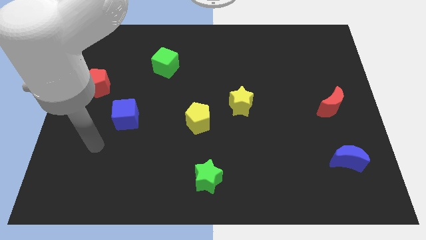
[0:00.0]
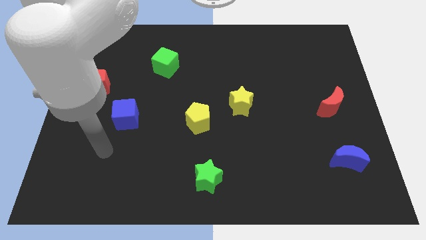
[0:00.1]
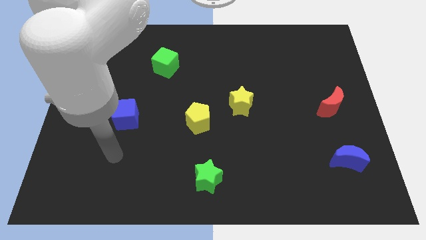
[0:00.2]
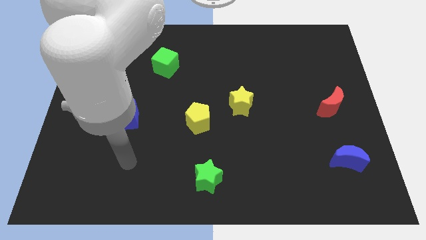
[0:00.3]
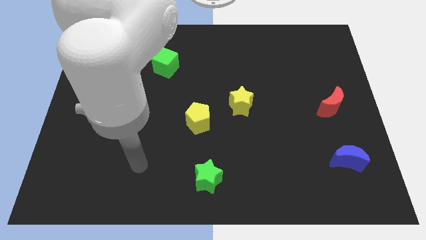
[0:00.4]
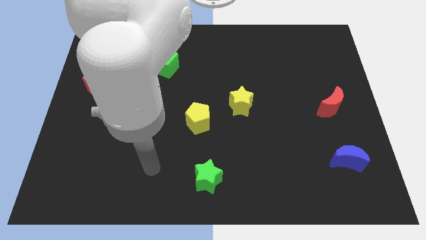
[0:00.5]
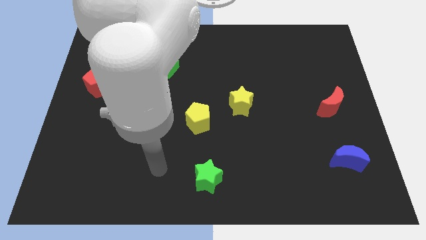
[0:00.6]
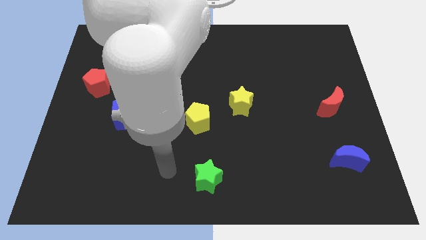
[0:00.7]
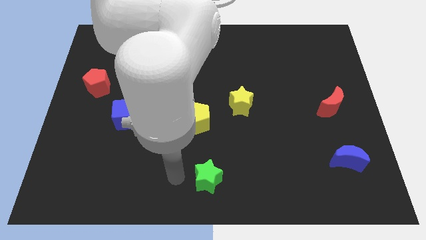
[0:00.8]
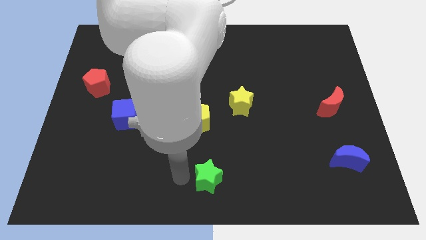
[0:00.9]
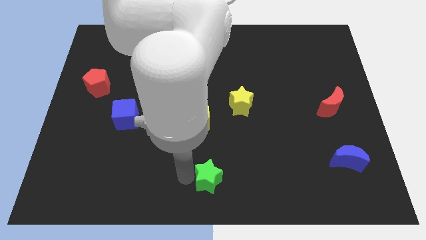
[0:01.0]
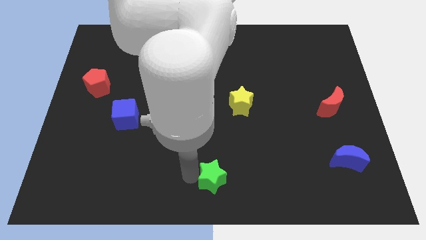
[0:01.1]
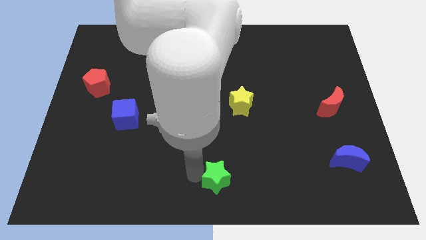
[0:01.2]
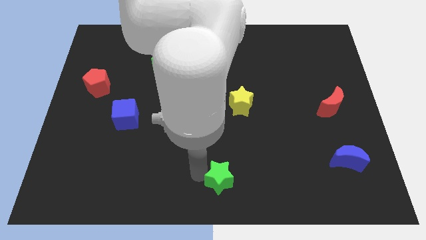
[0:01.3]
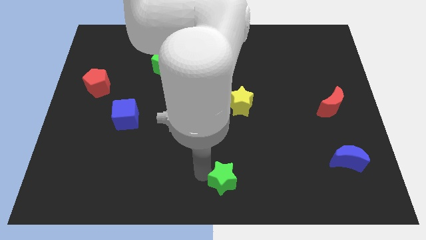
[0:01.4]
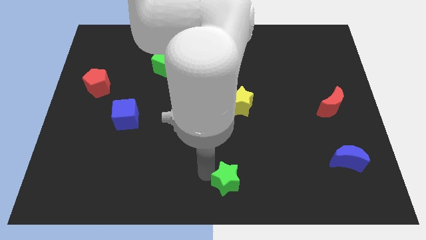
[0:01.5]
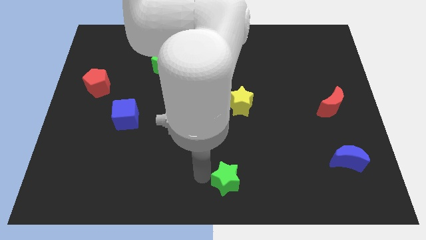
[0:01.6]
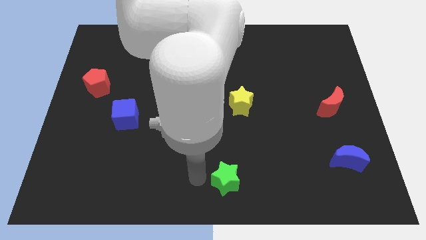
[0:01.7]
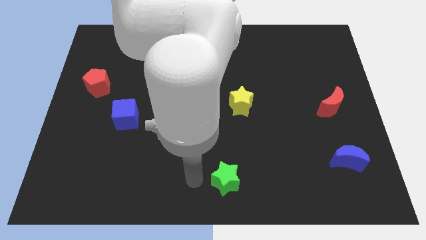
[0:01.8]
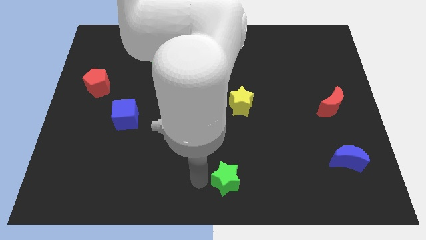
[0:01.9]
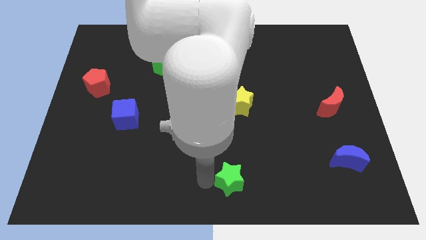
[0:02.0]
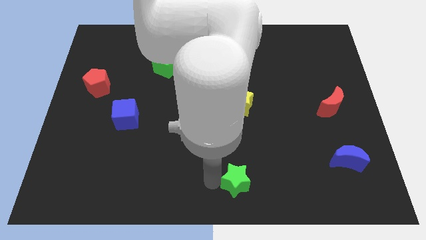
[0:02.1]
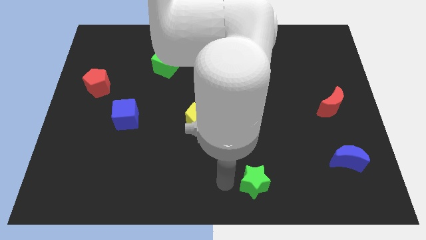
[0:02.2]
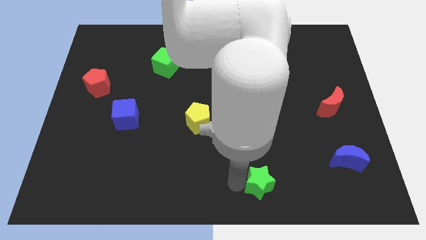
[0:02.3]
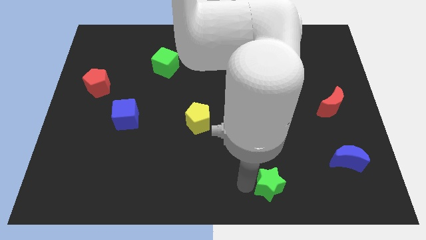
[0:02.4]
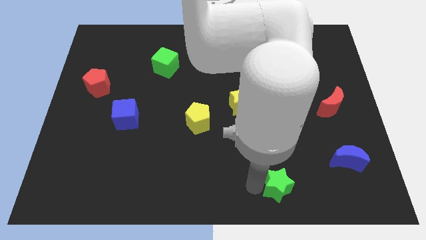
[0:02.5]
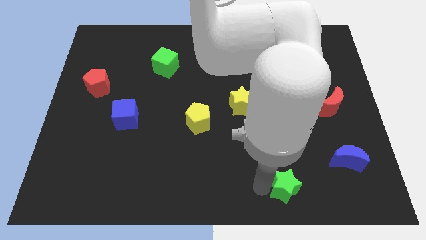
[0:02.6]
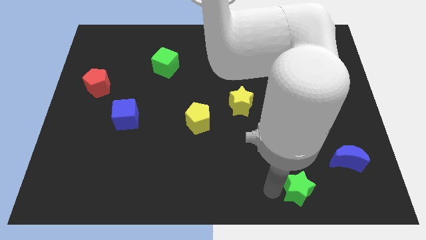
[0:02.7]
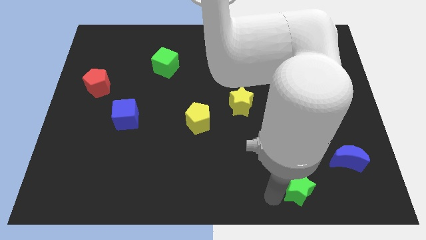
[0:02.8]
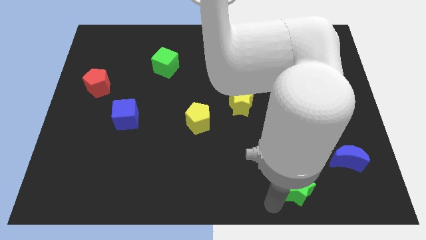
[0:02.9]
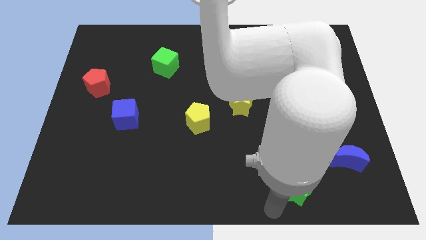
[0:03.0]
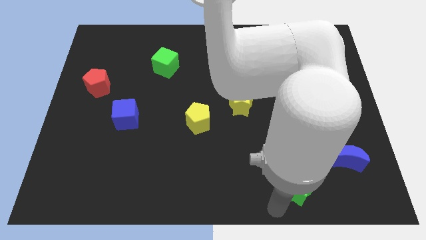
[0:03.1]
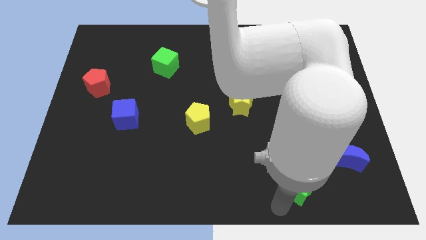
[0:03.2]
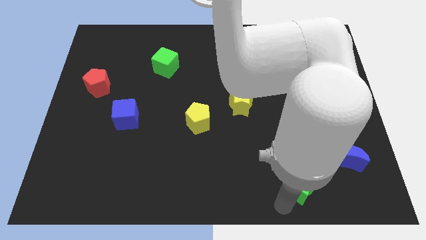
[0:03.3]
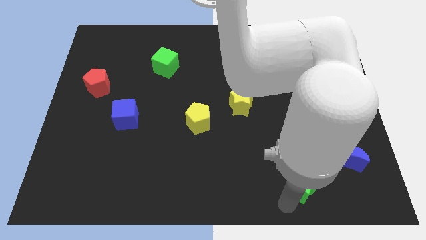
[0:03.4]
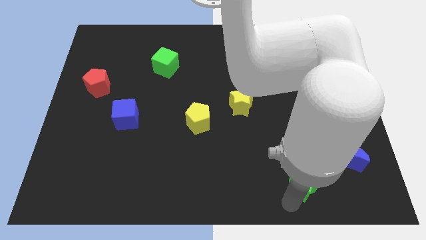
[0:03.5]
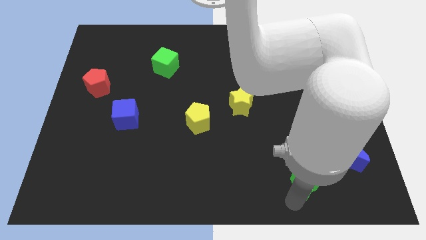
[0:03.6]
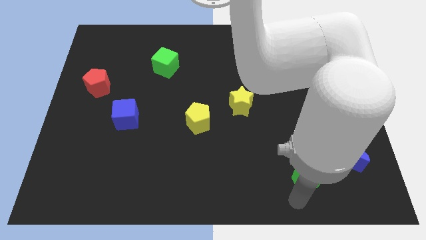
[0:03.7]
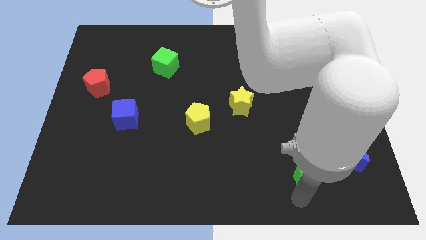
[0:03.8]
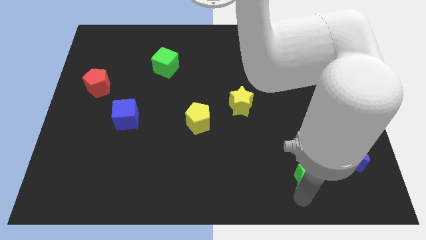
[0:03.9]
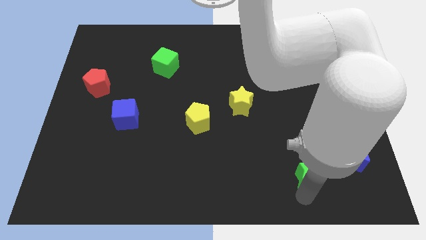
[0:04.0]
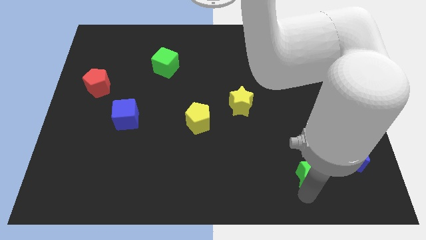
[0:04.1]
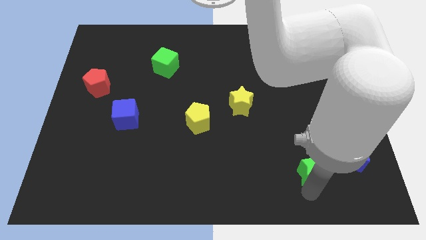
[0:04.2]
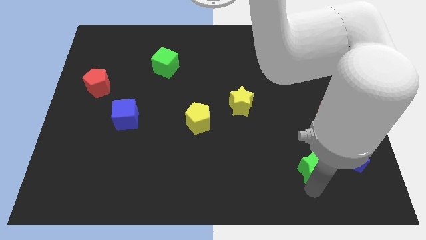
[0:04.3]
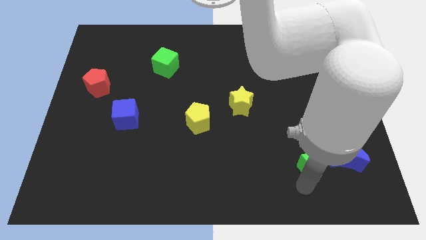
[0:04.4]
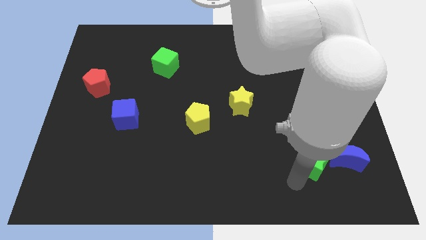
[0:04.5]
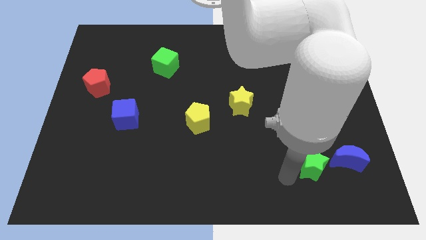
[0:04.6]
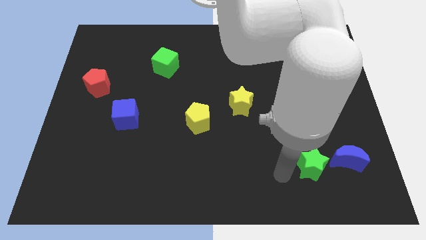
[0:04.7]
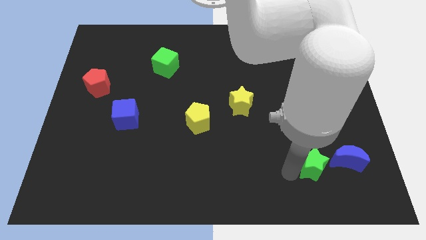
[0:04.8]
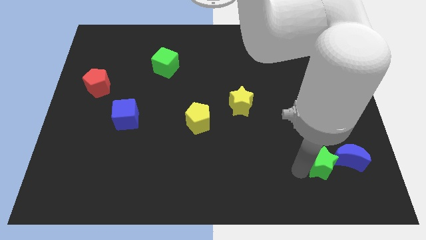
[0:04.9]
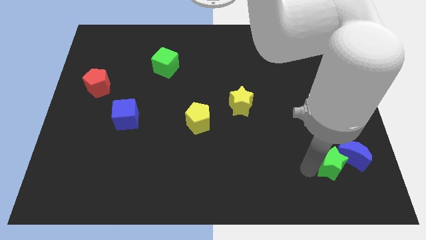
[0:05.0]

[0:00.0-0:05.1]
move the green star close to the blue moon

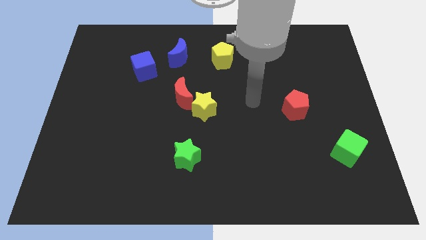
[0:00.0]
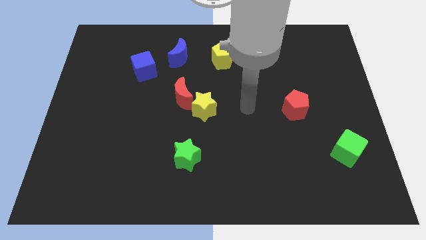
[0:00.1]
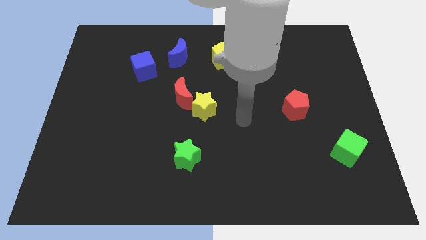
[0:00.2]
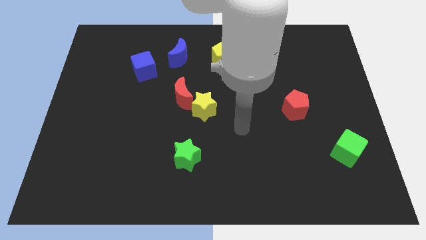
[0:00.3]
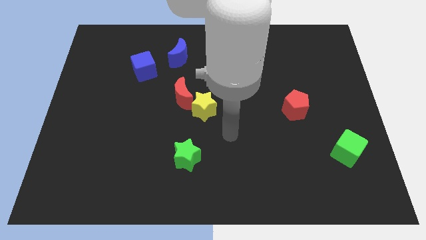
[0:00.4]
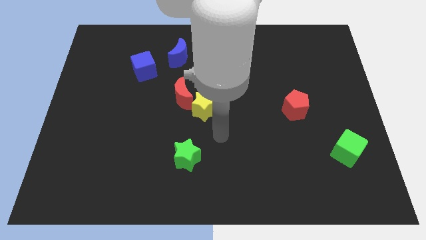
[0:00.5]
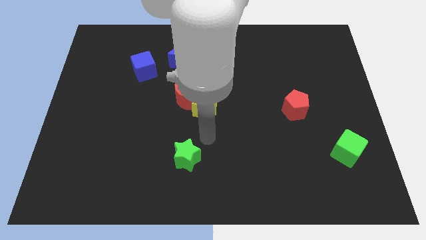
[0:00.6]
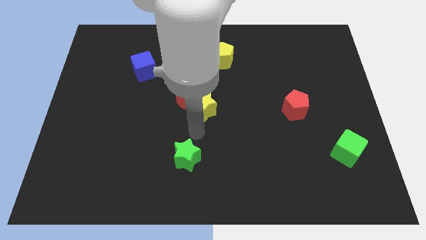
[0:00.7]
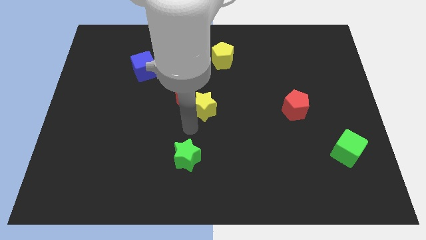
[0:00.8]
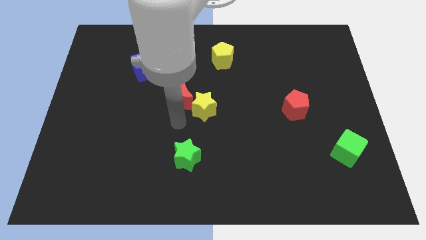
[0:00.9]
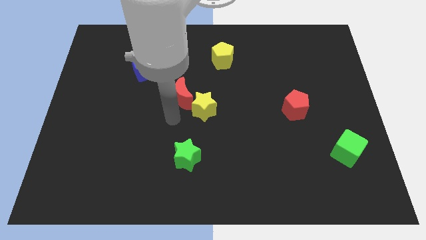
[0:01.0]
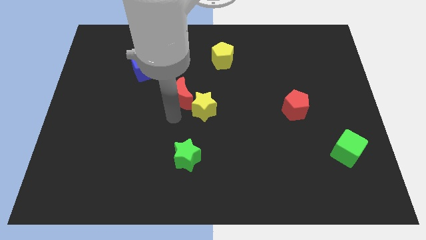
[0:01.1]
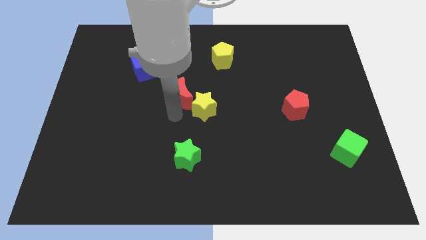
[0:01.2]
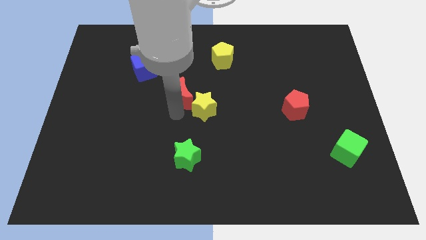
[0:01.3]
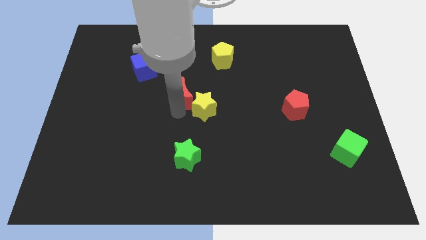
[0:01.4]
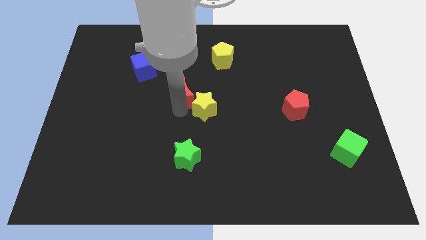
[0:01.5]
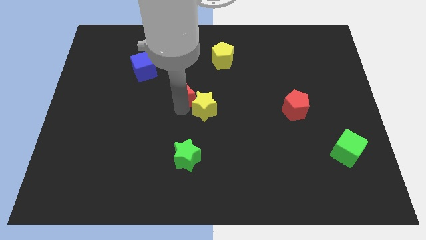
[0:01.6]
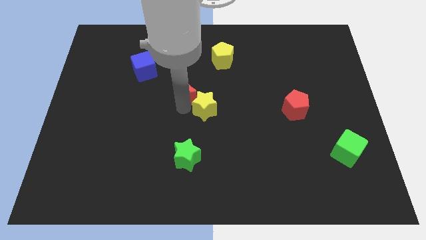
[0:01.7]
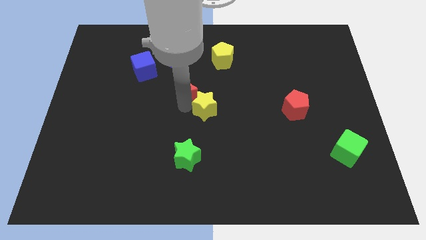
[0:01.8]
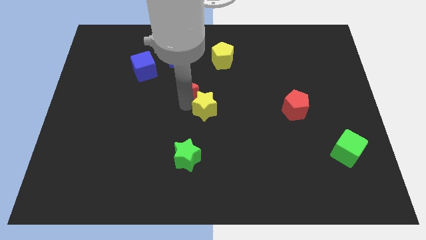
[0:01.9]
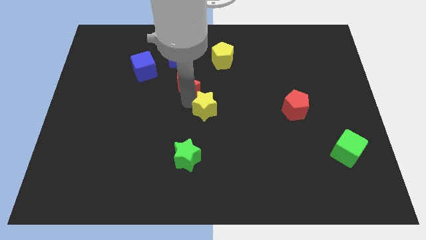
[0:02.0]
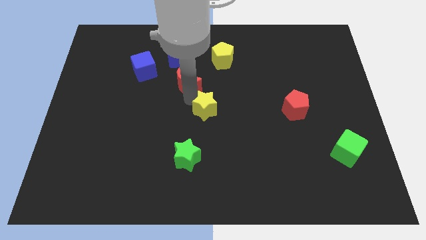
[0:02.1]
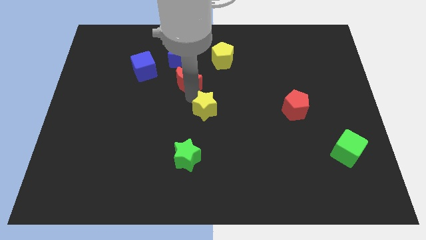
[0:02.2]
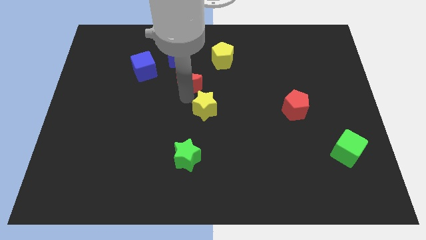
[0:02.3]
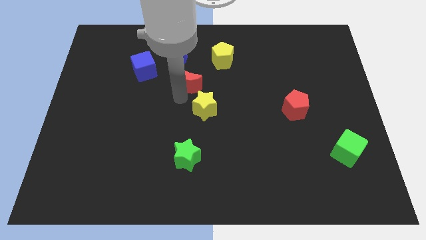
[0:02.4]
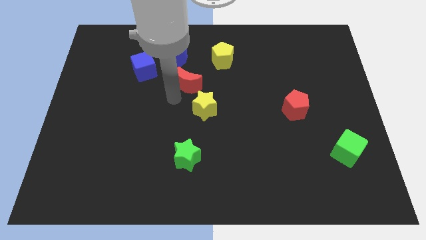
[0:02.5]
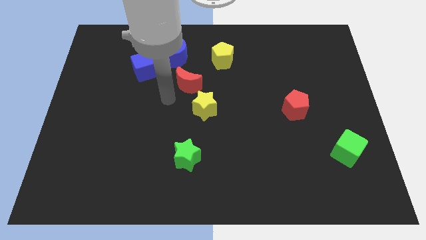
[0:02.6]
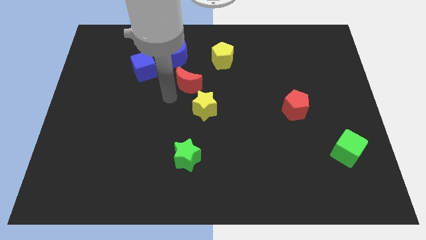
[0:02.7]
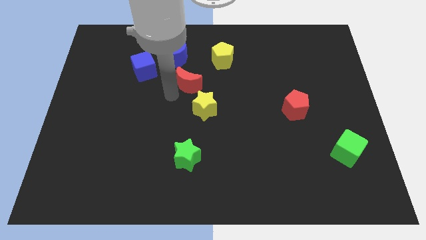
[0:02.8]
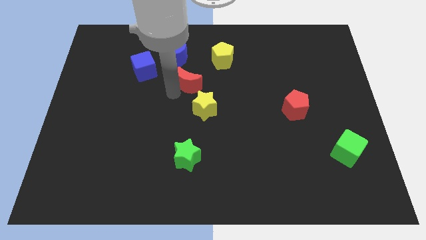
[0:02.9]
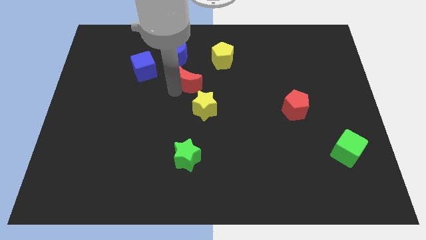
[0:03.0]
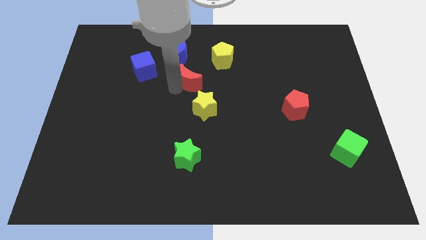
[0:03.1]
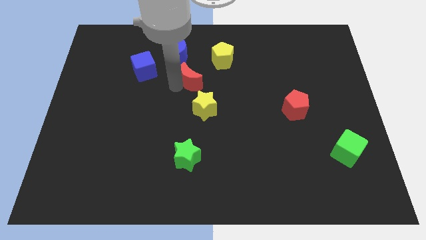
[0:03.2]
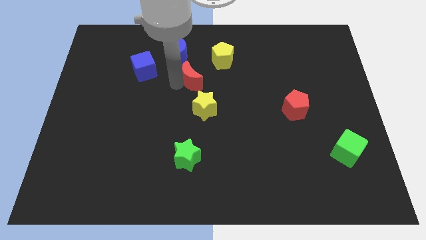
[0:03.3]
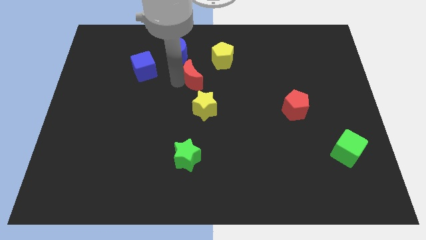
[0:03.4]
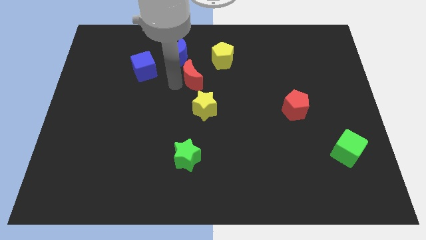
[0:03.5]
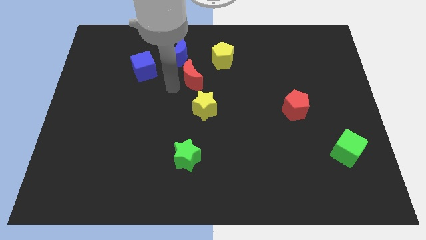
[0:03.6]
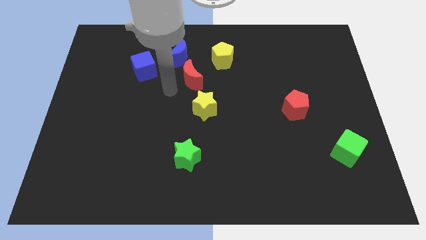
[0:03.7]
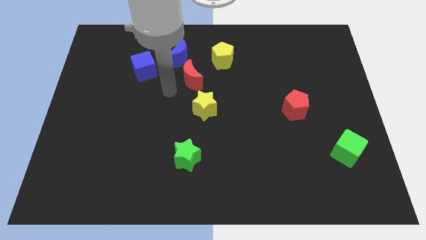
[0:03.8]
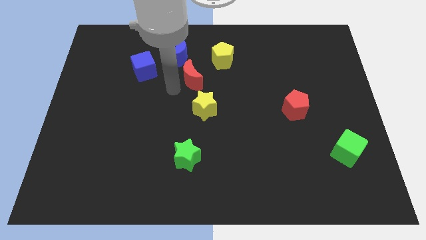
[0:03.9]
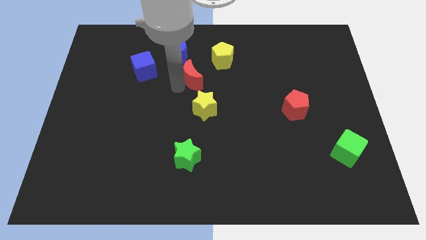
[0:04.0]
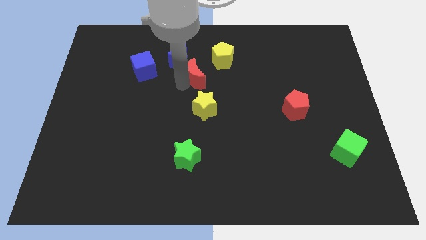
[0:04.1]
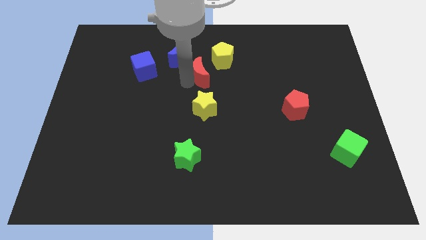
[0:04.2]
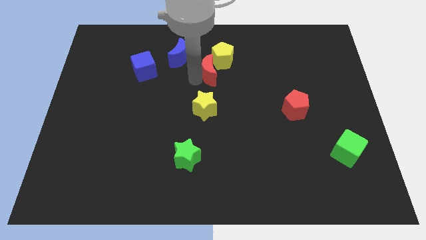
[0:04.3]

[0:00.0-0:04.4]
move the red moon towards the yellow pentagon
